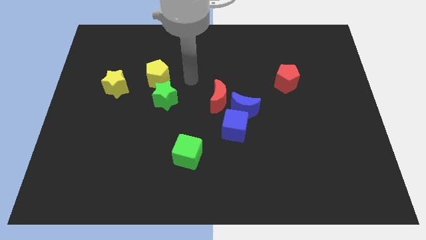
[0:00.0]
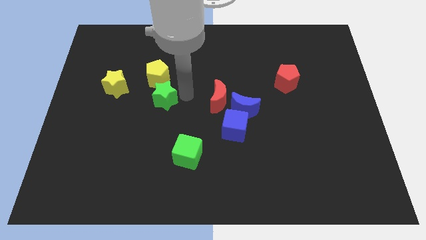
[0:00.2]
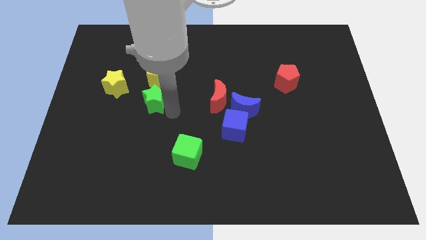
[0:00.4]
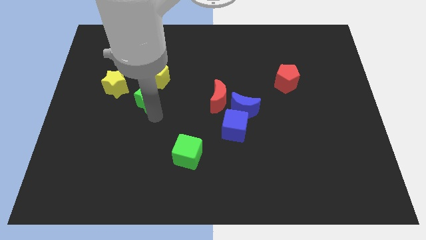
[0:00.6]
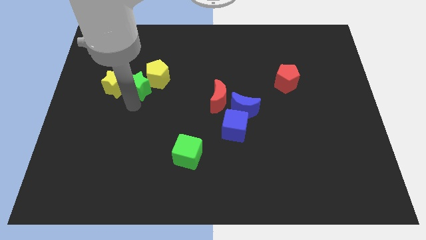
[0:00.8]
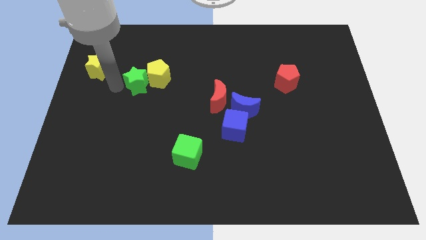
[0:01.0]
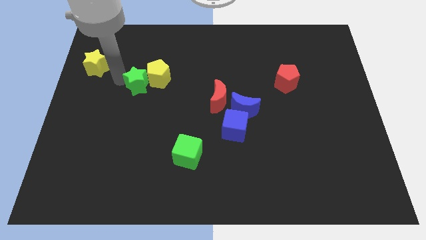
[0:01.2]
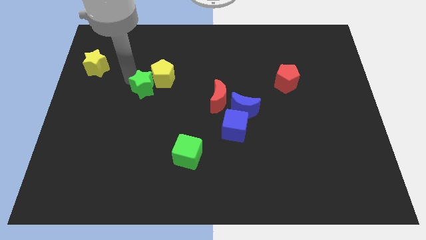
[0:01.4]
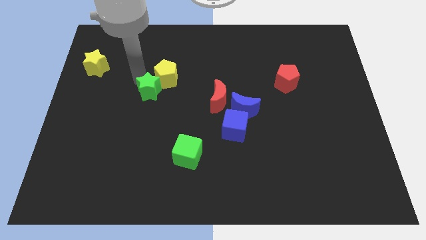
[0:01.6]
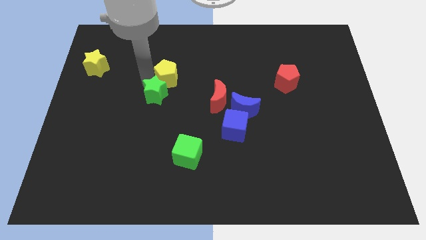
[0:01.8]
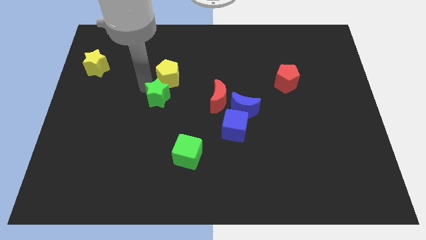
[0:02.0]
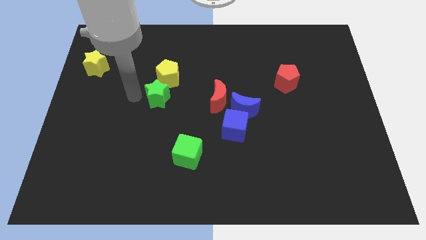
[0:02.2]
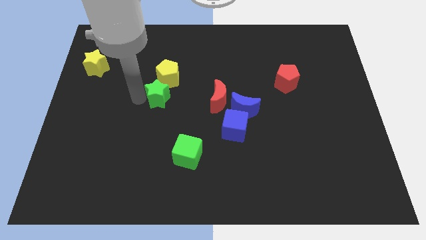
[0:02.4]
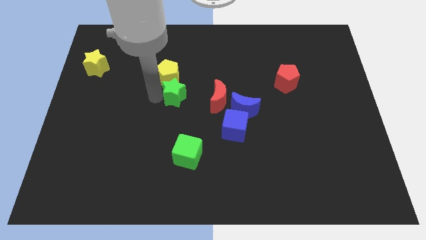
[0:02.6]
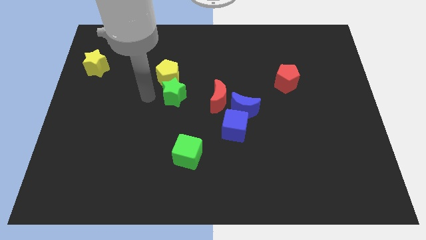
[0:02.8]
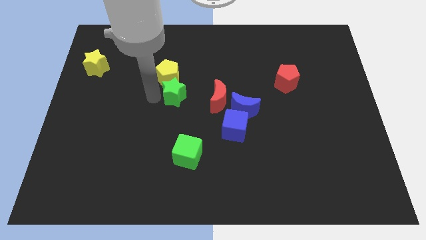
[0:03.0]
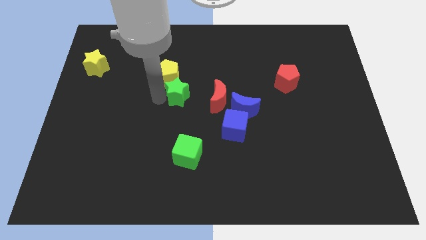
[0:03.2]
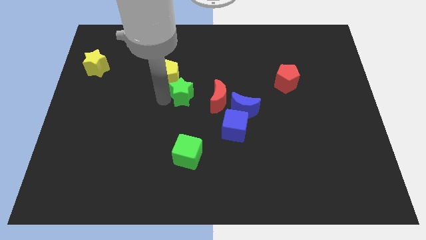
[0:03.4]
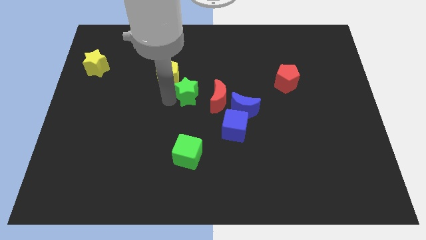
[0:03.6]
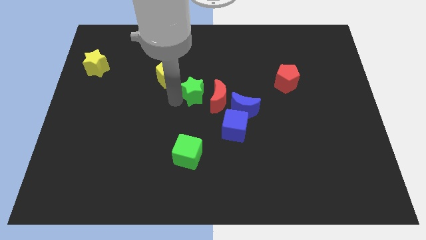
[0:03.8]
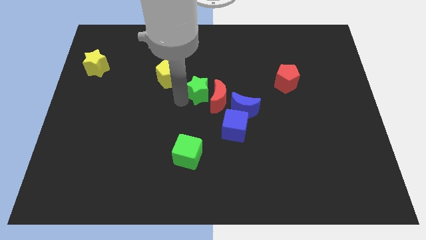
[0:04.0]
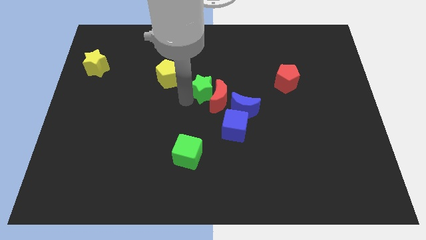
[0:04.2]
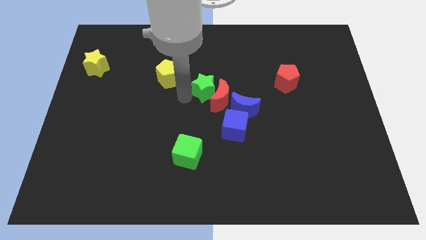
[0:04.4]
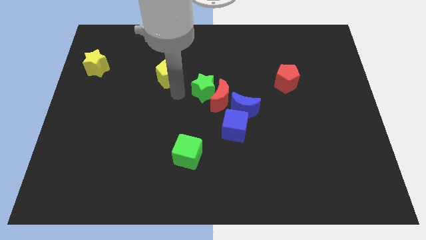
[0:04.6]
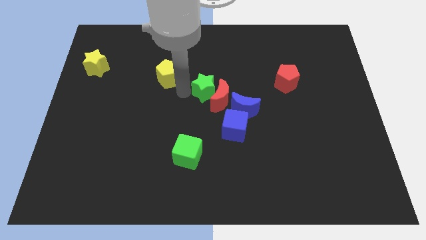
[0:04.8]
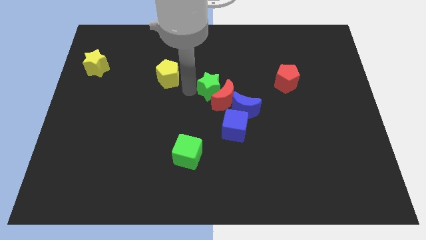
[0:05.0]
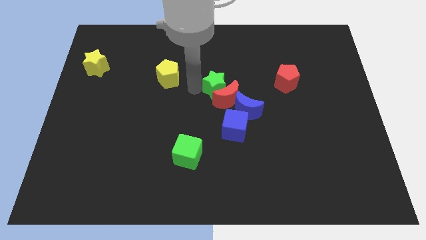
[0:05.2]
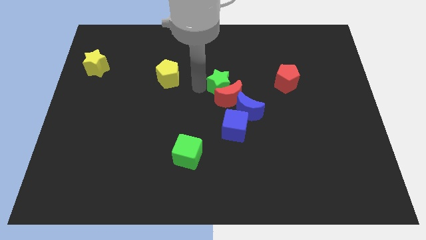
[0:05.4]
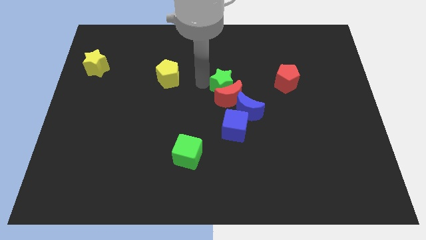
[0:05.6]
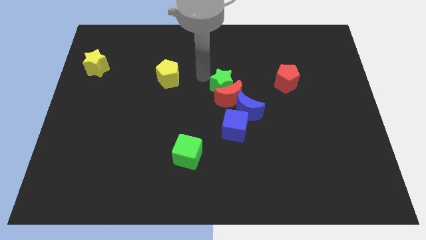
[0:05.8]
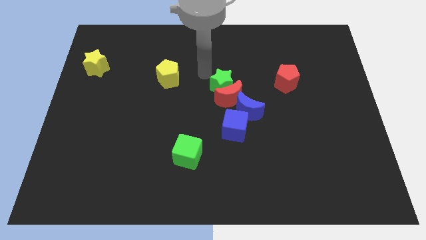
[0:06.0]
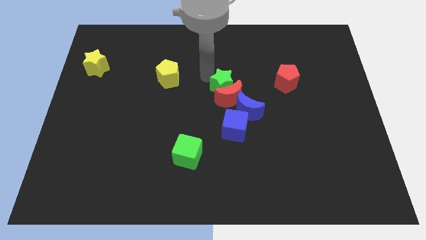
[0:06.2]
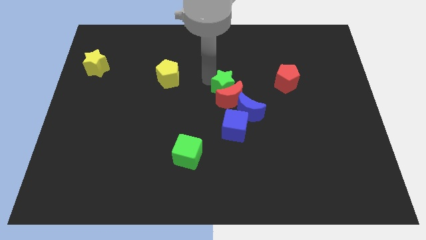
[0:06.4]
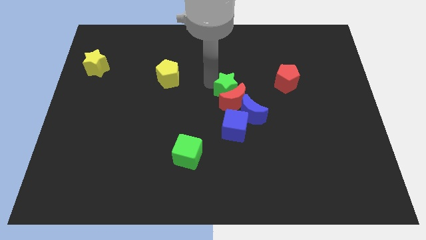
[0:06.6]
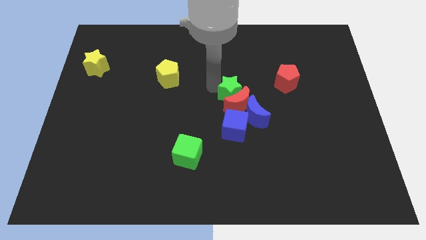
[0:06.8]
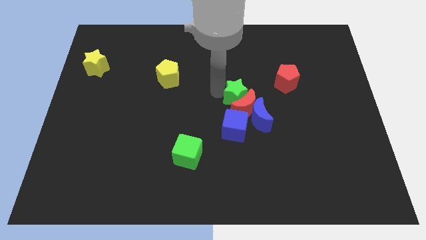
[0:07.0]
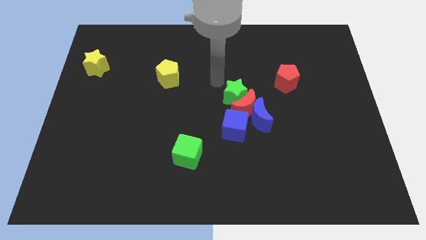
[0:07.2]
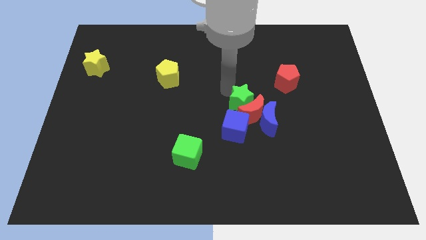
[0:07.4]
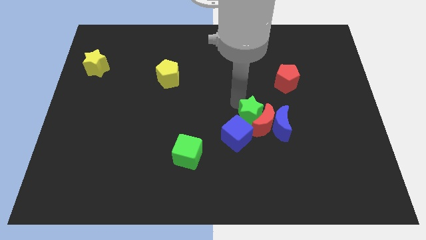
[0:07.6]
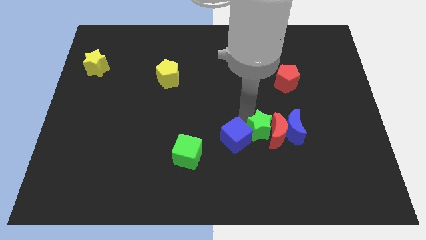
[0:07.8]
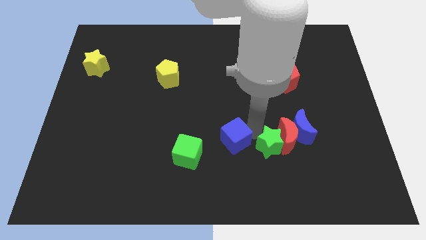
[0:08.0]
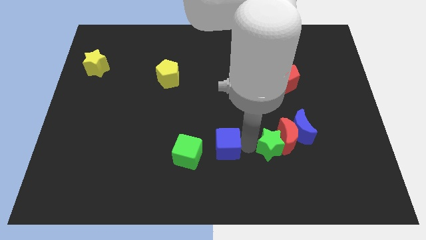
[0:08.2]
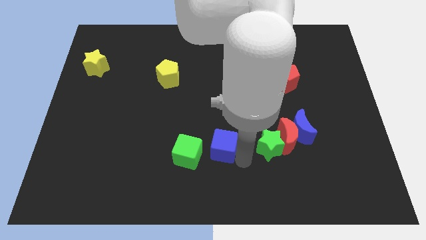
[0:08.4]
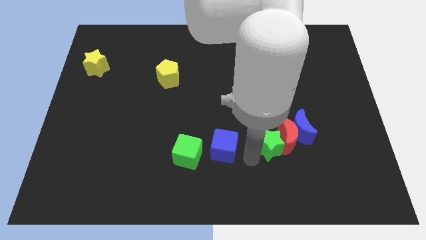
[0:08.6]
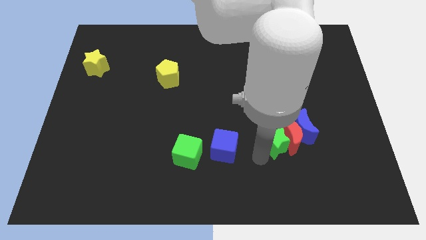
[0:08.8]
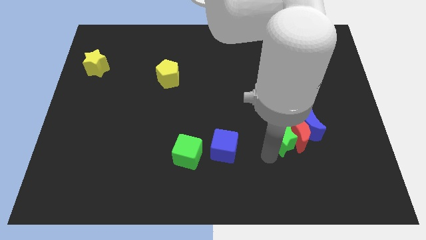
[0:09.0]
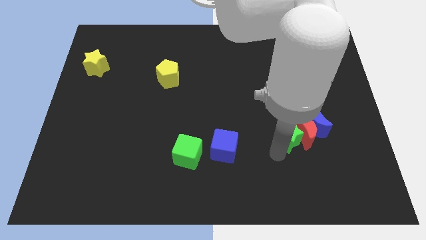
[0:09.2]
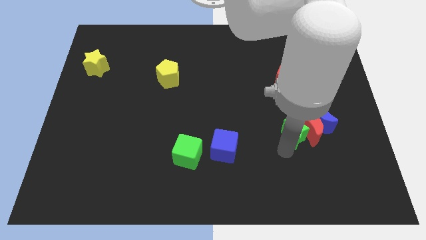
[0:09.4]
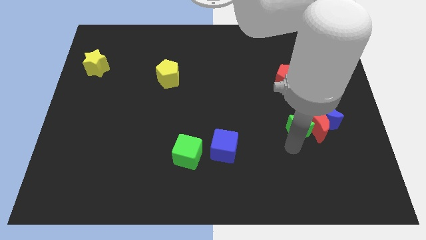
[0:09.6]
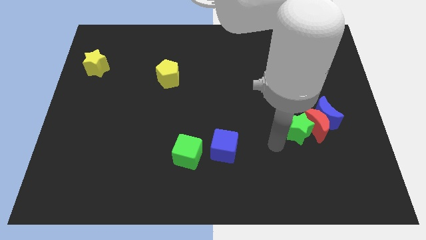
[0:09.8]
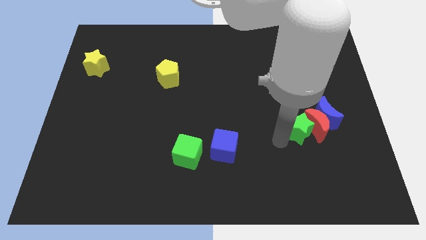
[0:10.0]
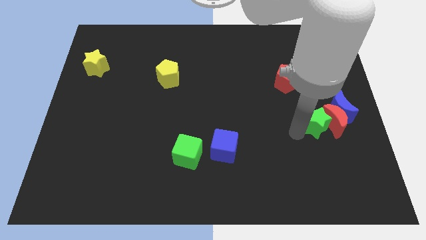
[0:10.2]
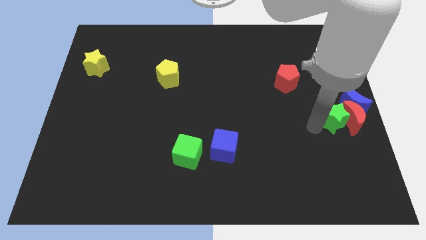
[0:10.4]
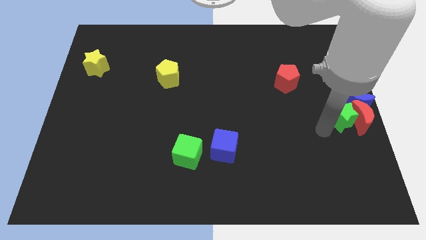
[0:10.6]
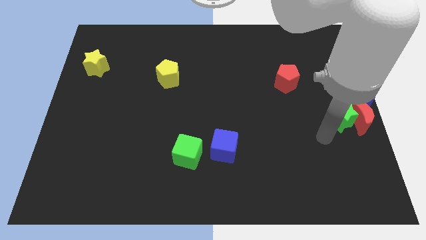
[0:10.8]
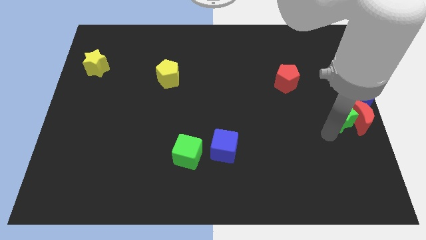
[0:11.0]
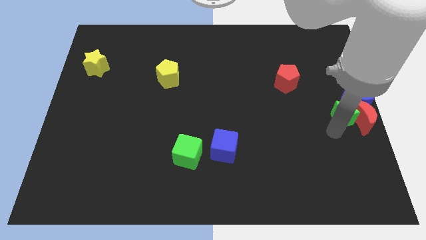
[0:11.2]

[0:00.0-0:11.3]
push the green star next to the blue moon

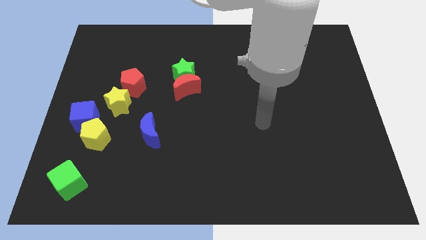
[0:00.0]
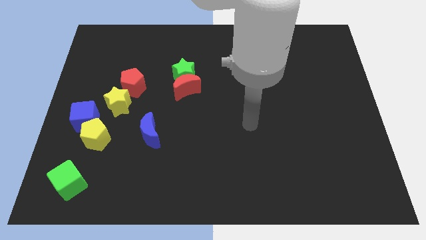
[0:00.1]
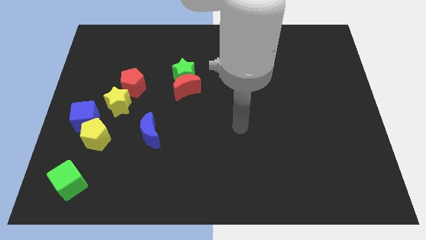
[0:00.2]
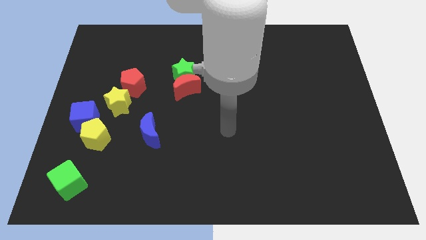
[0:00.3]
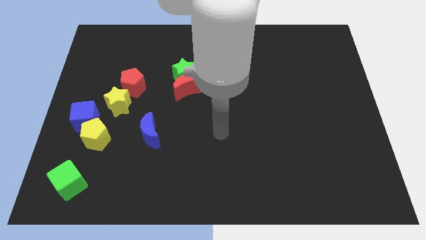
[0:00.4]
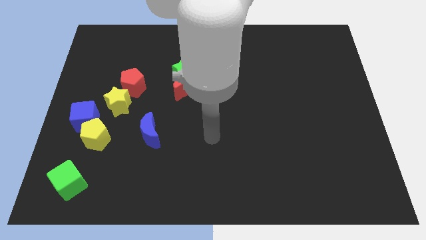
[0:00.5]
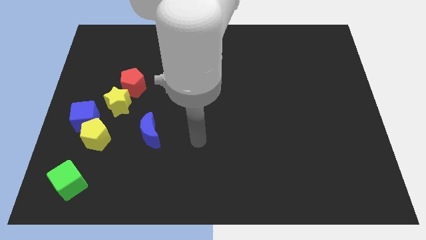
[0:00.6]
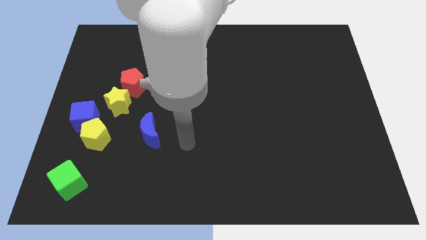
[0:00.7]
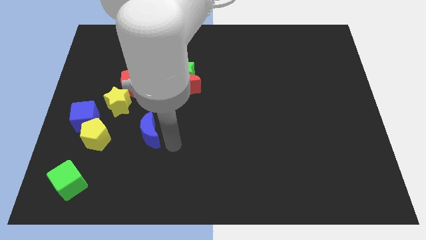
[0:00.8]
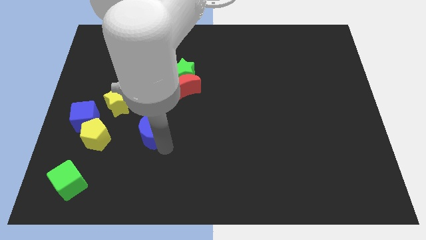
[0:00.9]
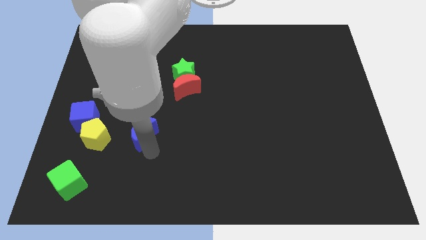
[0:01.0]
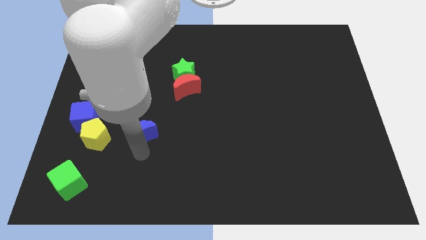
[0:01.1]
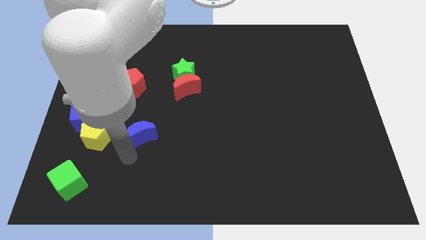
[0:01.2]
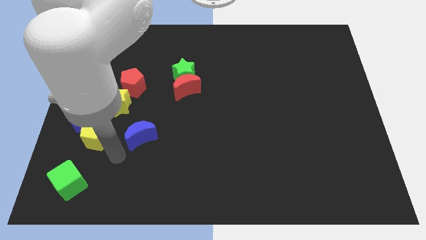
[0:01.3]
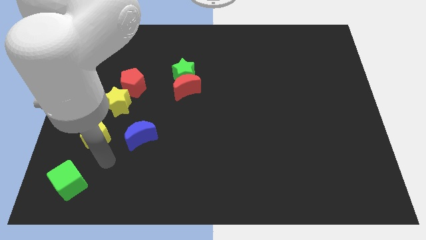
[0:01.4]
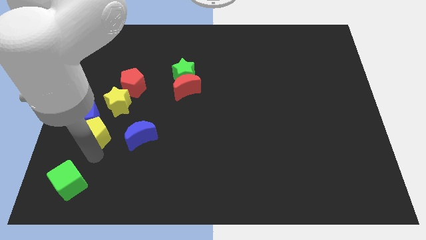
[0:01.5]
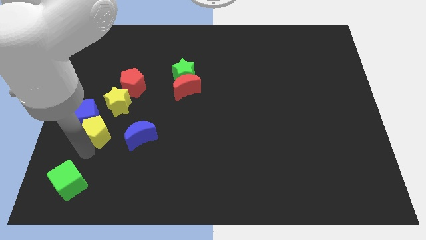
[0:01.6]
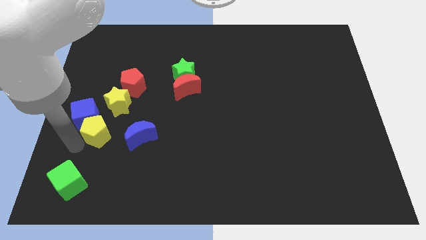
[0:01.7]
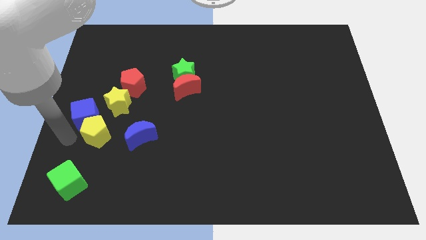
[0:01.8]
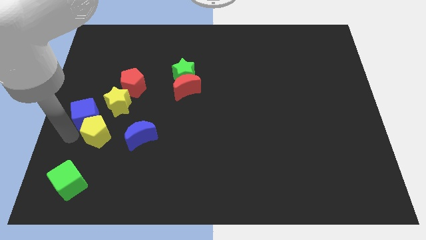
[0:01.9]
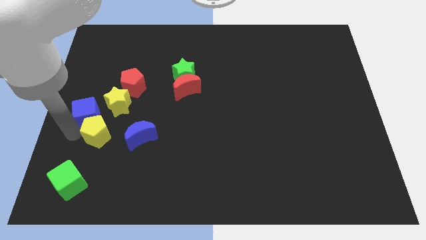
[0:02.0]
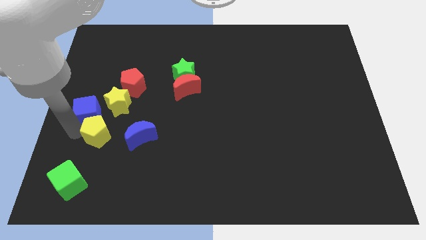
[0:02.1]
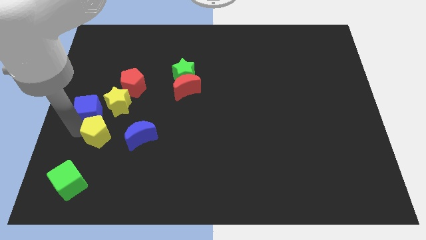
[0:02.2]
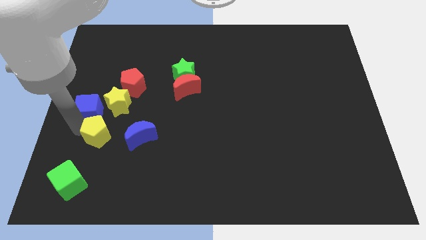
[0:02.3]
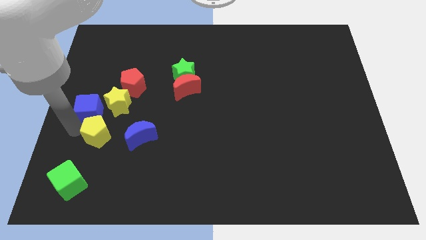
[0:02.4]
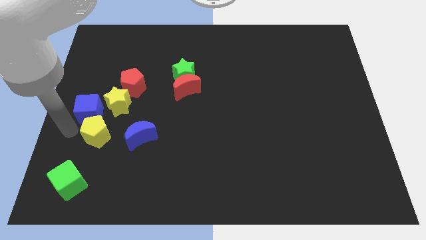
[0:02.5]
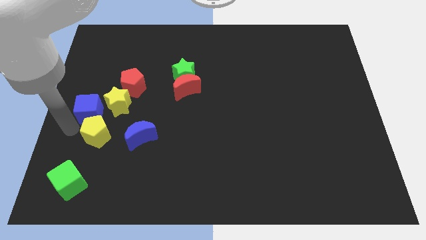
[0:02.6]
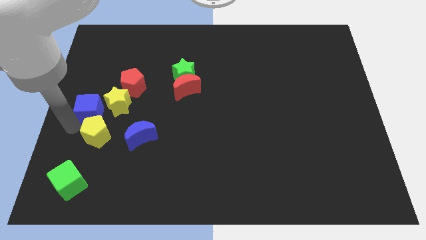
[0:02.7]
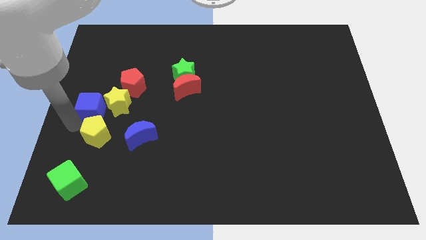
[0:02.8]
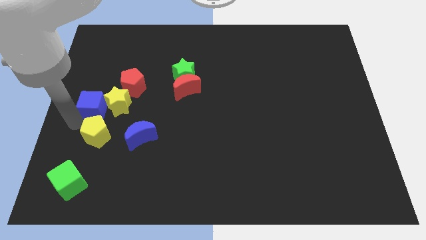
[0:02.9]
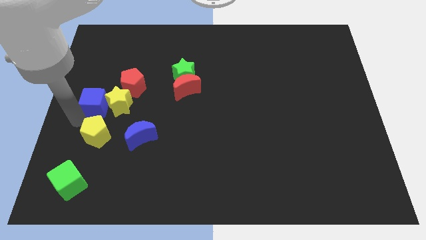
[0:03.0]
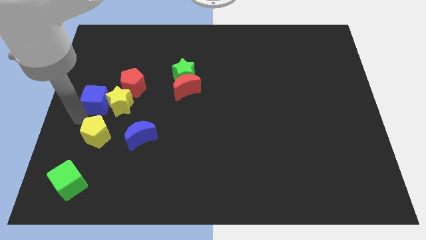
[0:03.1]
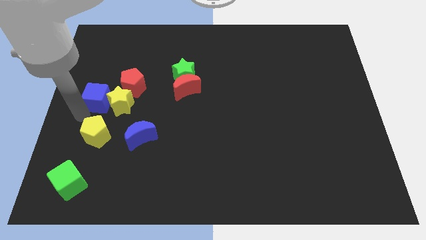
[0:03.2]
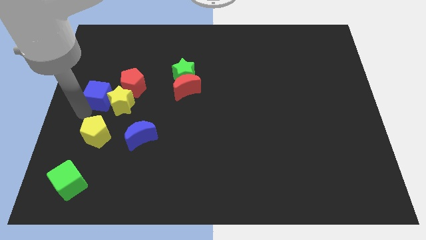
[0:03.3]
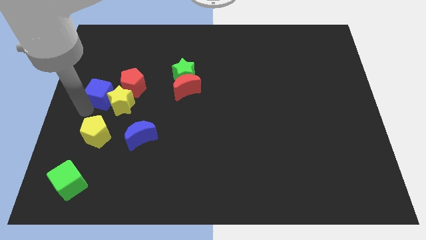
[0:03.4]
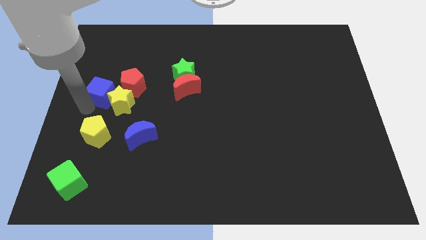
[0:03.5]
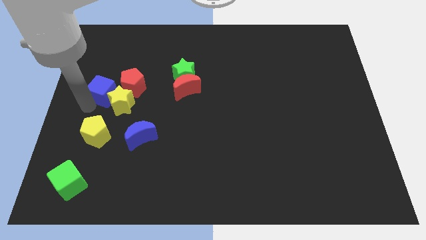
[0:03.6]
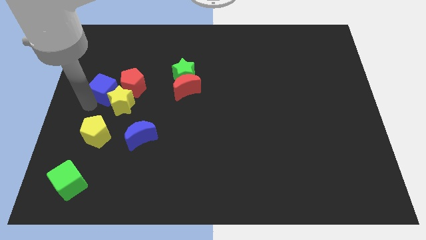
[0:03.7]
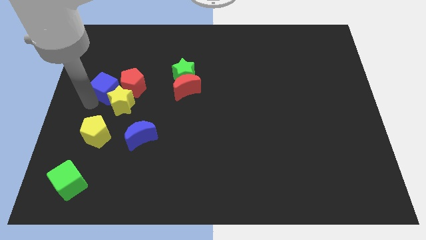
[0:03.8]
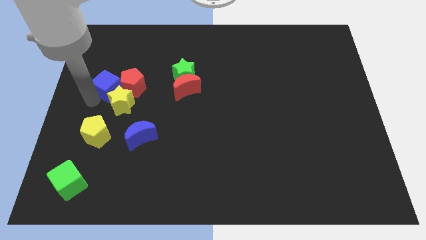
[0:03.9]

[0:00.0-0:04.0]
slide the blue cube close to the red pentagon
